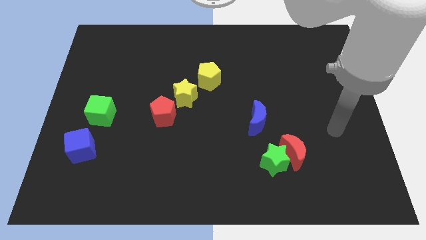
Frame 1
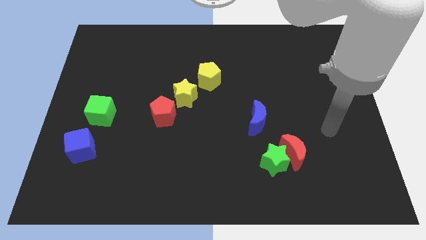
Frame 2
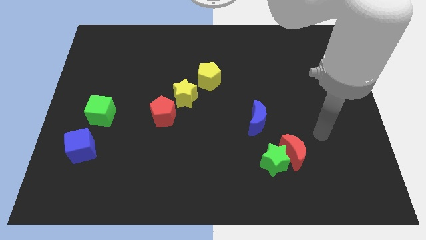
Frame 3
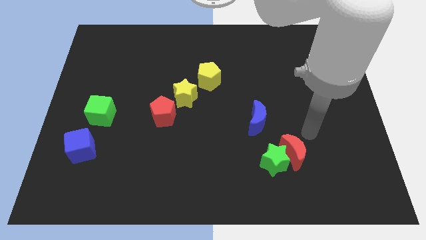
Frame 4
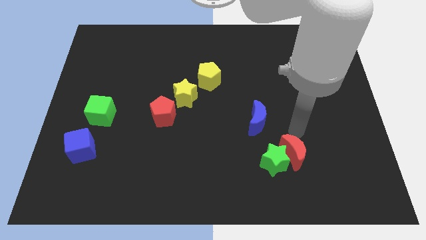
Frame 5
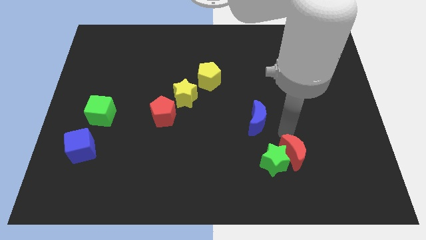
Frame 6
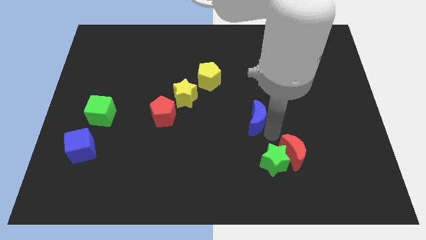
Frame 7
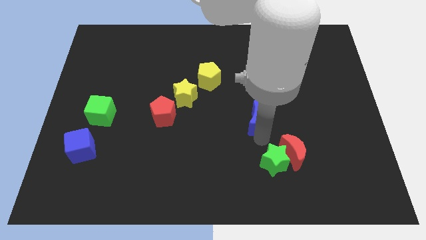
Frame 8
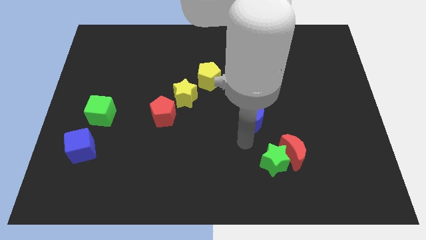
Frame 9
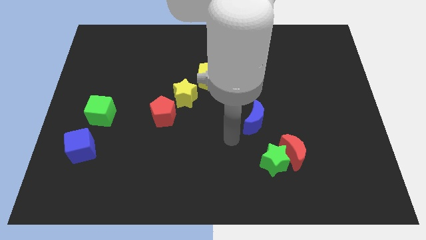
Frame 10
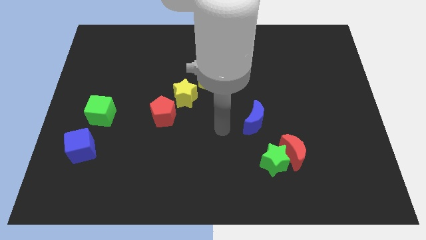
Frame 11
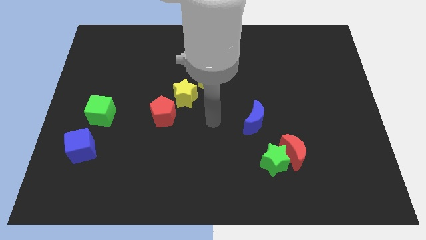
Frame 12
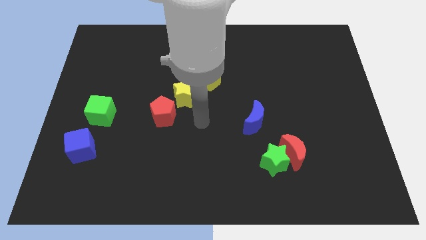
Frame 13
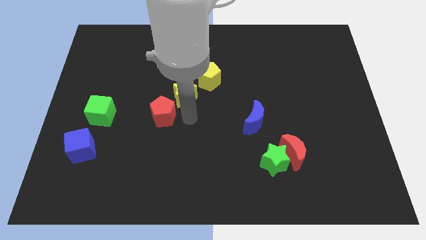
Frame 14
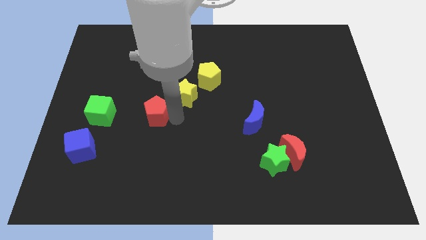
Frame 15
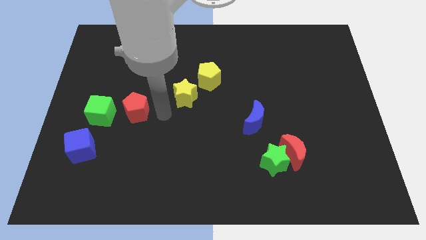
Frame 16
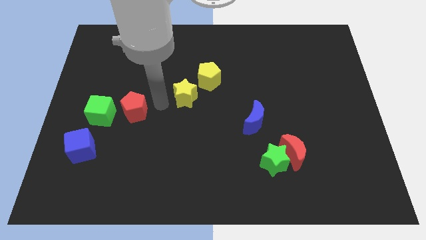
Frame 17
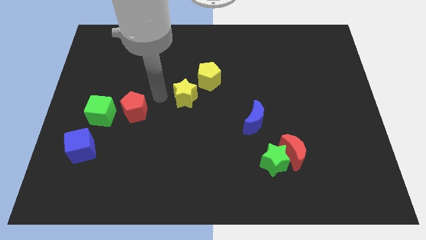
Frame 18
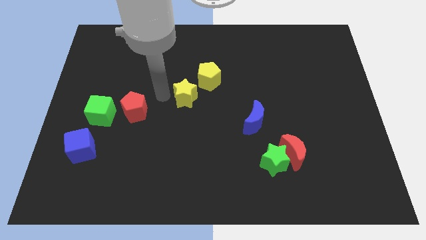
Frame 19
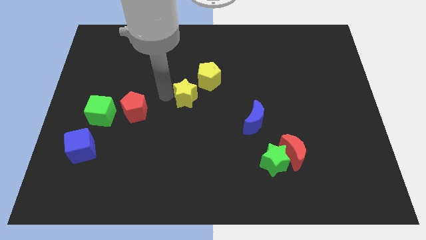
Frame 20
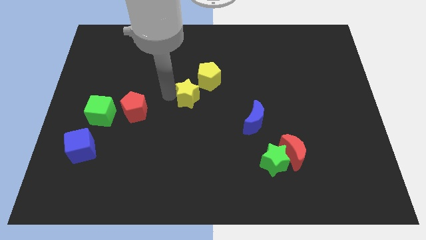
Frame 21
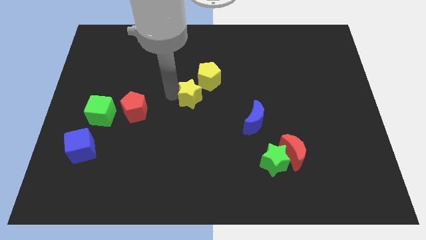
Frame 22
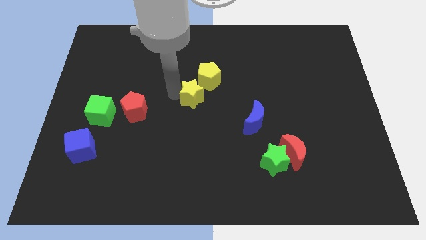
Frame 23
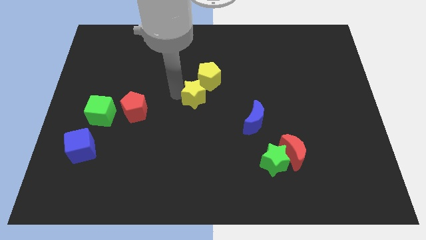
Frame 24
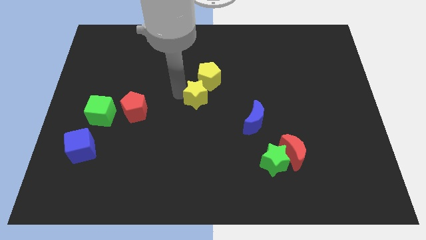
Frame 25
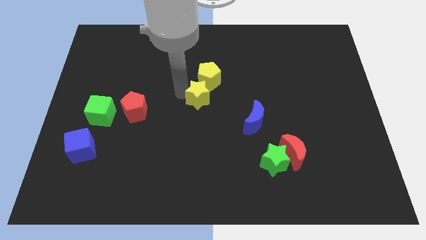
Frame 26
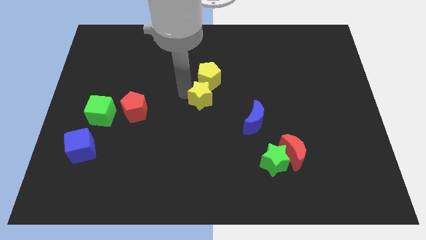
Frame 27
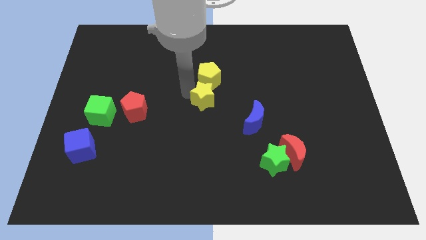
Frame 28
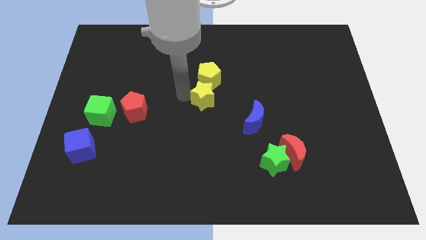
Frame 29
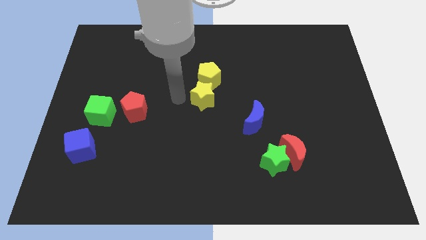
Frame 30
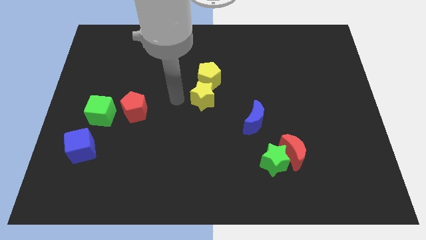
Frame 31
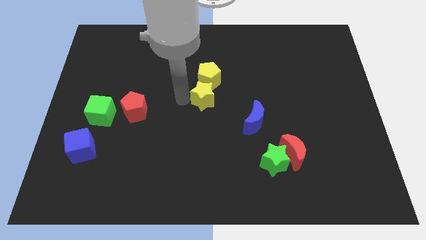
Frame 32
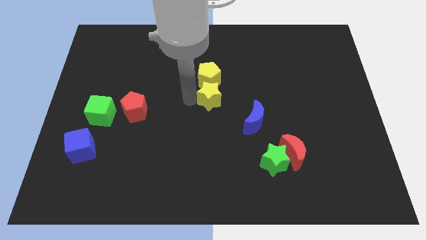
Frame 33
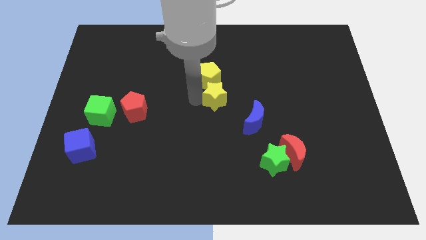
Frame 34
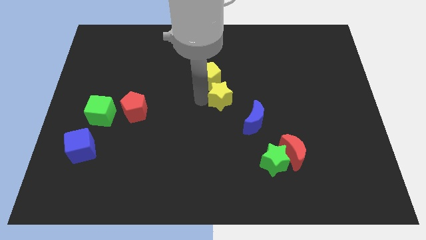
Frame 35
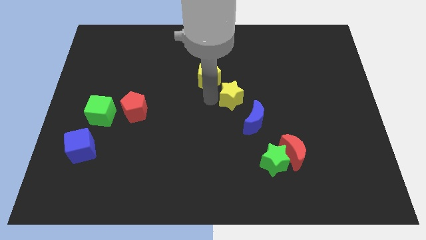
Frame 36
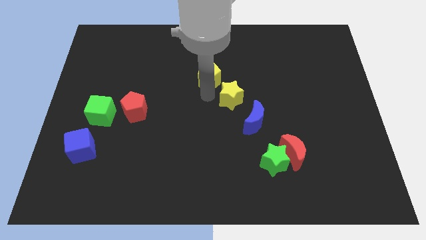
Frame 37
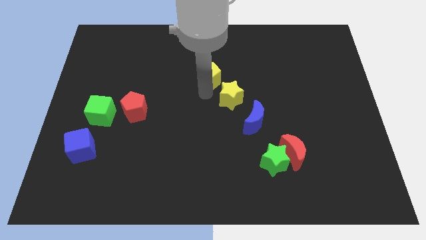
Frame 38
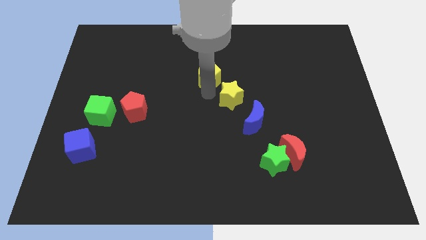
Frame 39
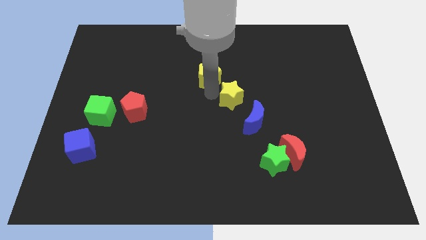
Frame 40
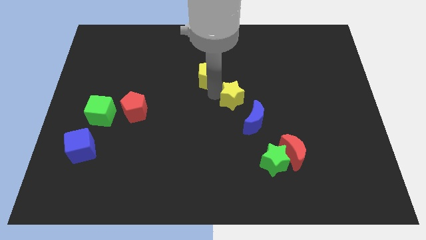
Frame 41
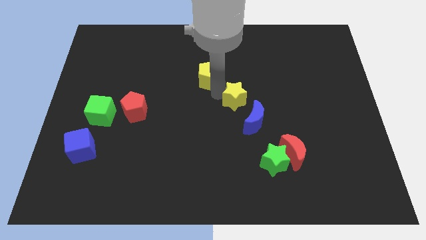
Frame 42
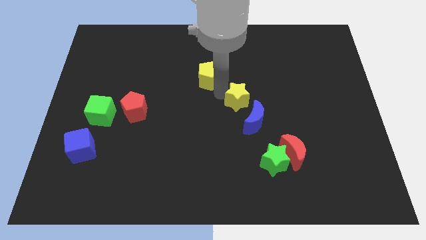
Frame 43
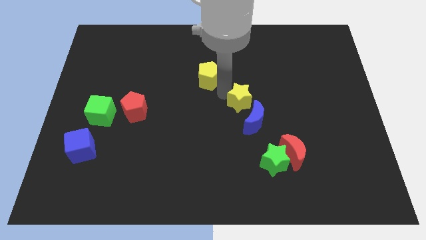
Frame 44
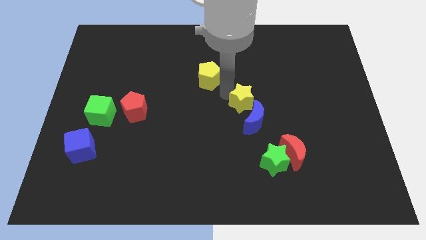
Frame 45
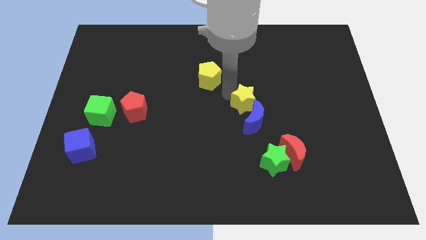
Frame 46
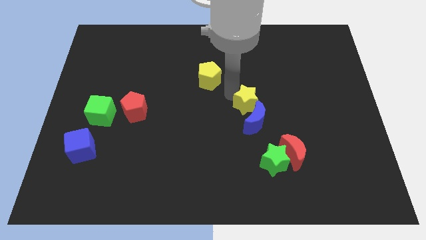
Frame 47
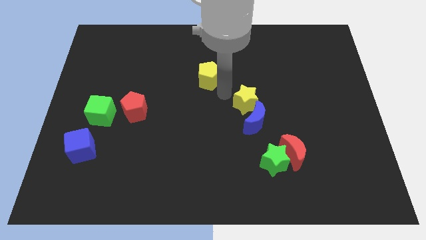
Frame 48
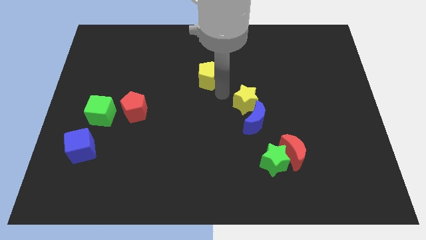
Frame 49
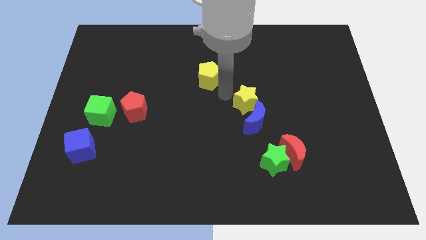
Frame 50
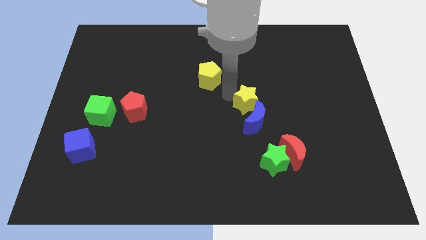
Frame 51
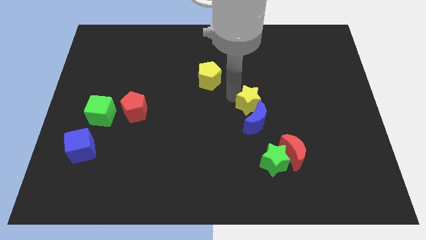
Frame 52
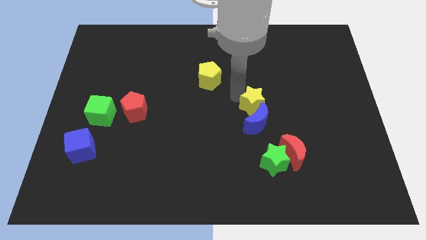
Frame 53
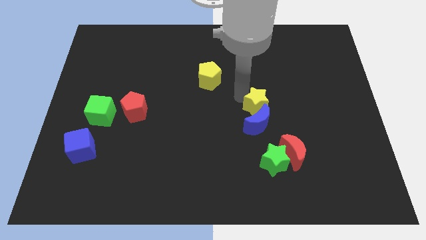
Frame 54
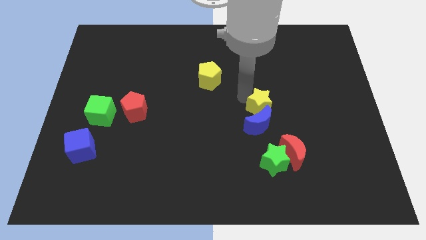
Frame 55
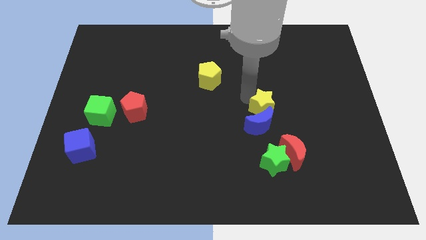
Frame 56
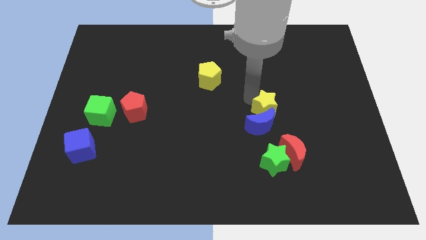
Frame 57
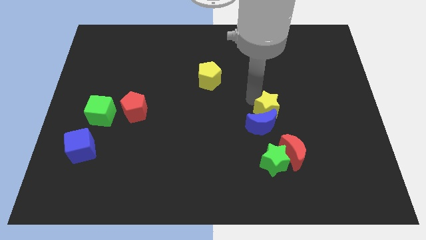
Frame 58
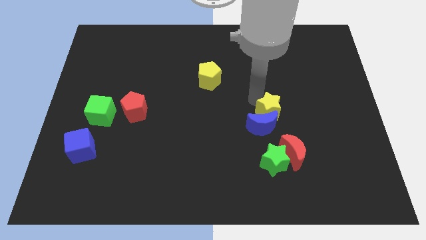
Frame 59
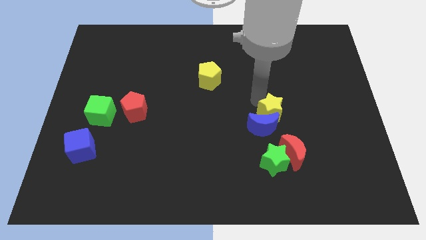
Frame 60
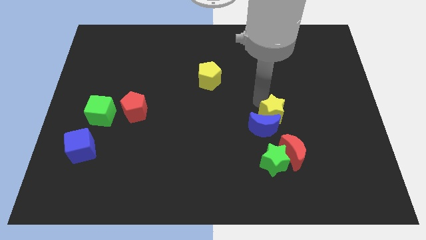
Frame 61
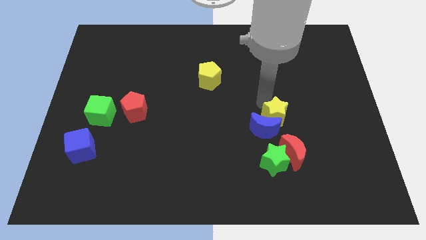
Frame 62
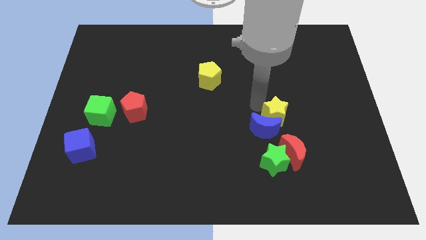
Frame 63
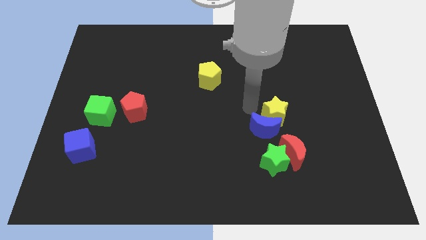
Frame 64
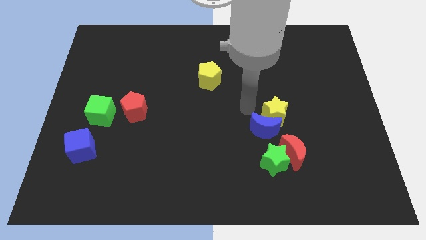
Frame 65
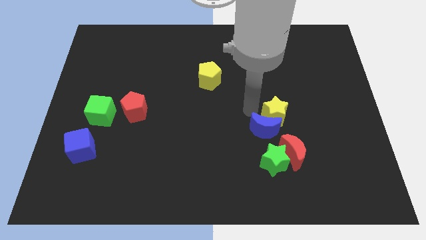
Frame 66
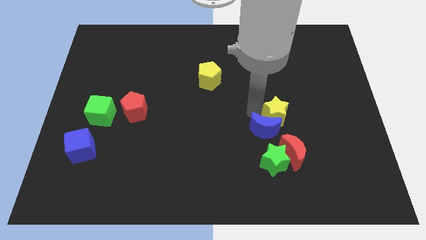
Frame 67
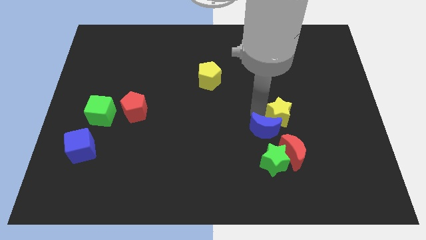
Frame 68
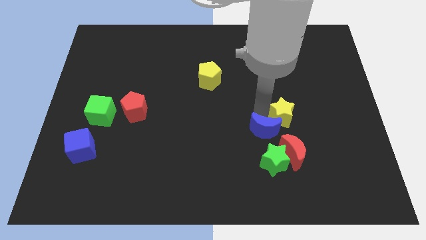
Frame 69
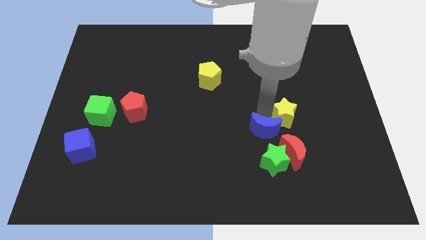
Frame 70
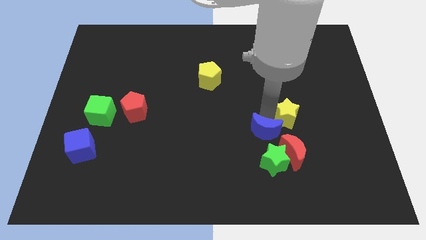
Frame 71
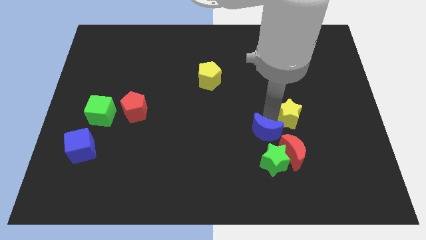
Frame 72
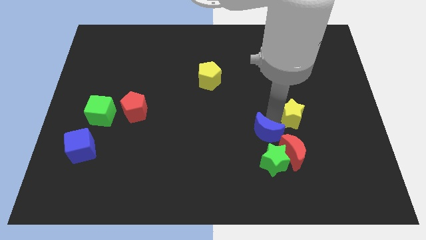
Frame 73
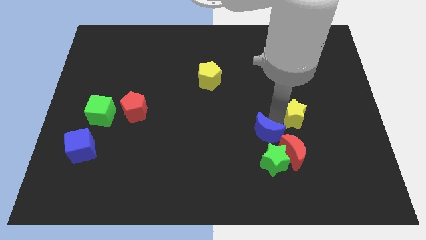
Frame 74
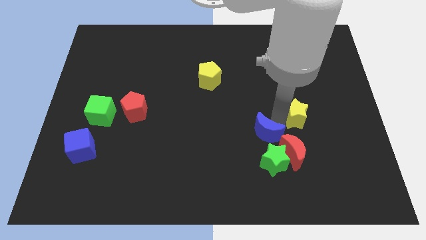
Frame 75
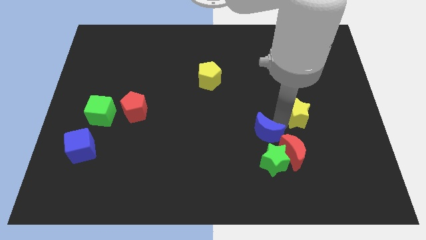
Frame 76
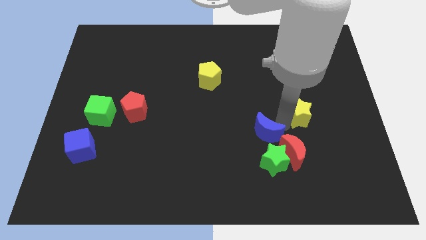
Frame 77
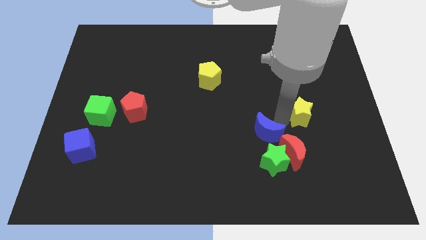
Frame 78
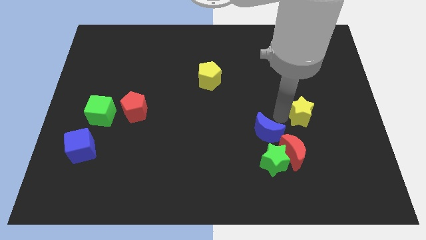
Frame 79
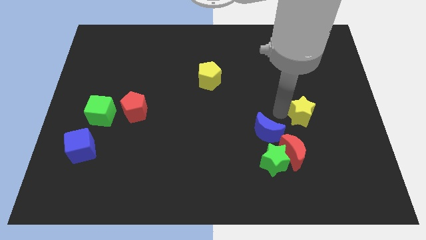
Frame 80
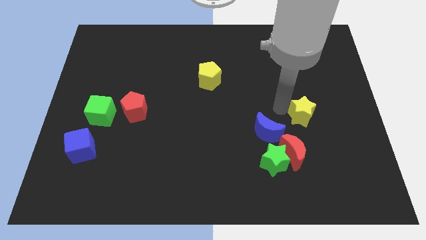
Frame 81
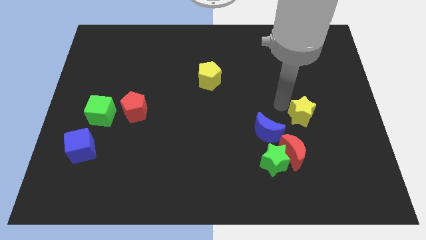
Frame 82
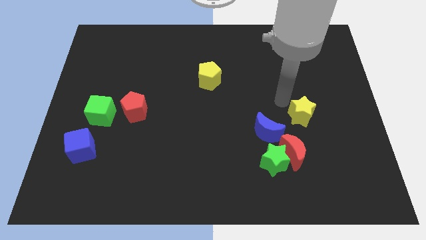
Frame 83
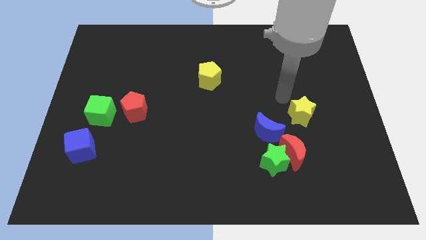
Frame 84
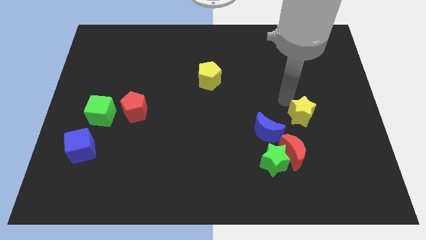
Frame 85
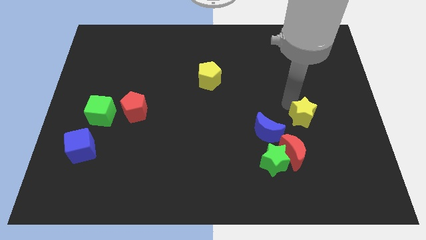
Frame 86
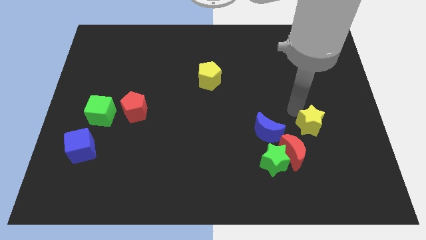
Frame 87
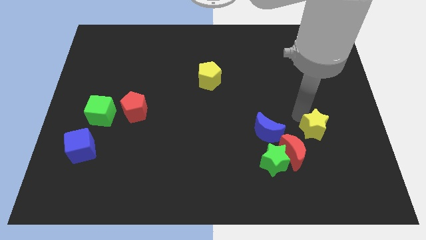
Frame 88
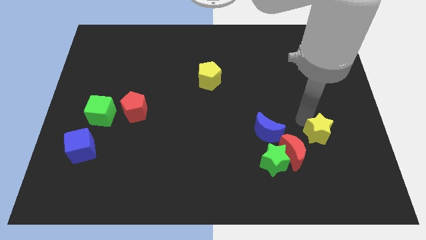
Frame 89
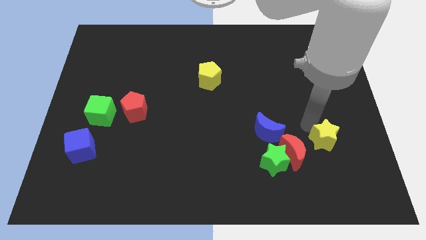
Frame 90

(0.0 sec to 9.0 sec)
slide the yellow star right of the red moon
